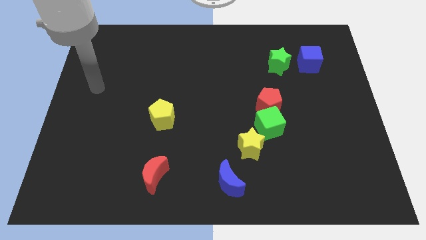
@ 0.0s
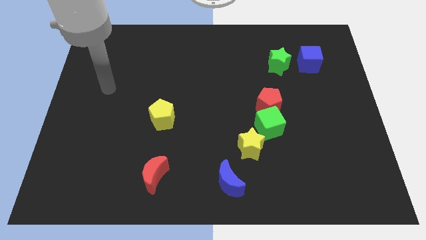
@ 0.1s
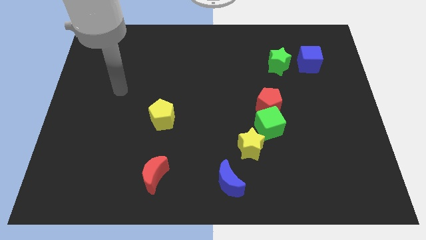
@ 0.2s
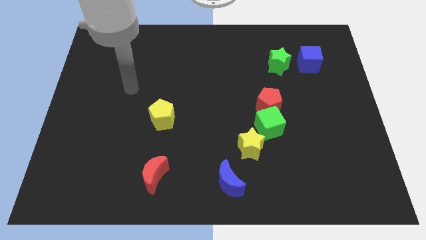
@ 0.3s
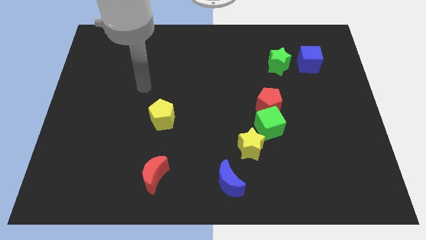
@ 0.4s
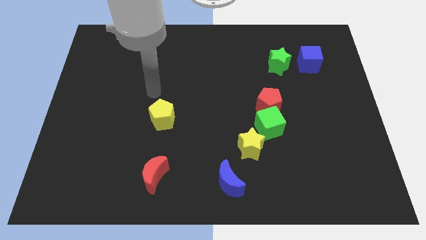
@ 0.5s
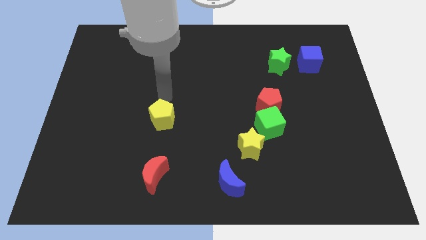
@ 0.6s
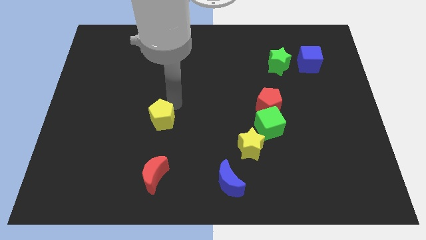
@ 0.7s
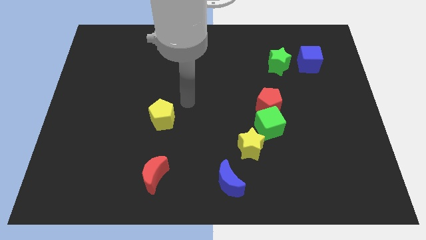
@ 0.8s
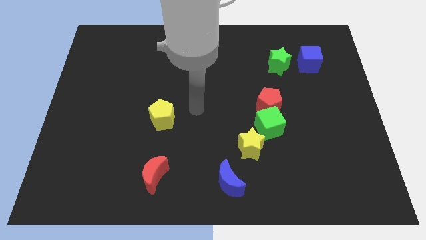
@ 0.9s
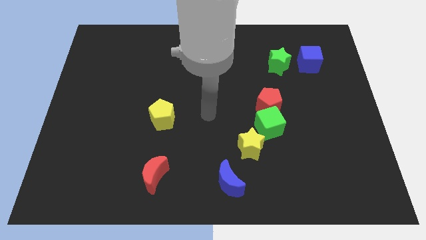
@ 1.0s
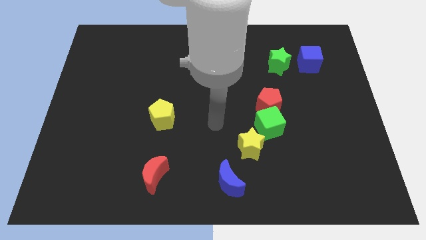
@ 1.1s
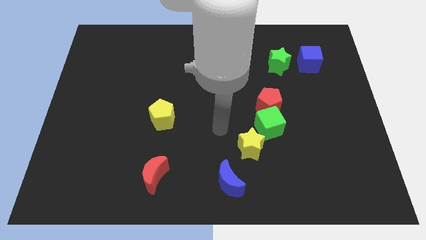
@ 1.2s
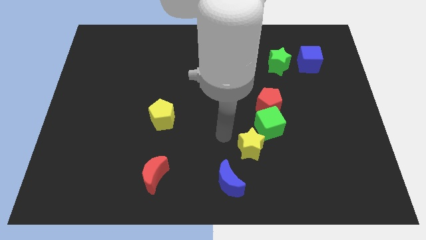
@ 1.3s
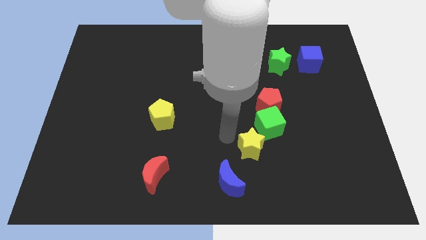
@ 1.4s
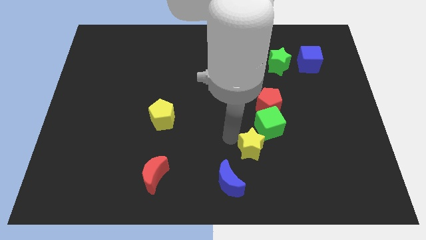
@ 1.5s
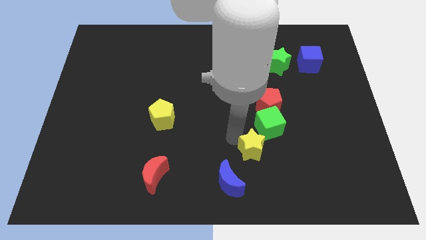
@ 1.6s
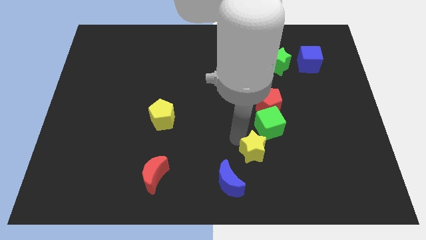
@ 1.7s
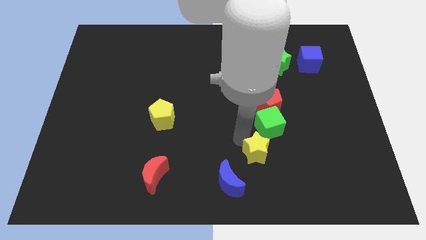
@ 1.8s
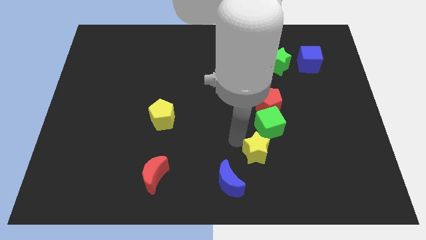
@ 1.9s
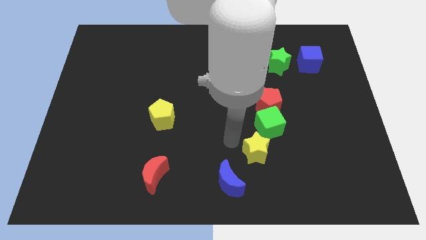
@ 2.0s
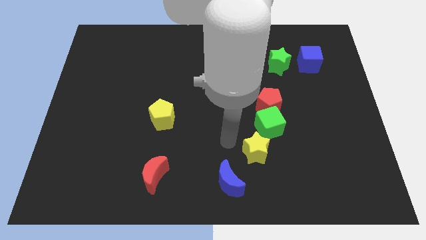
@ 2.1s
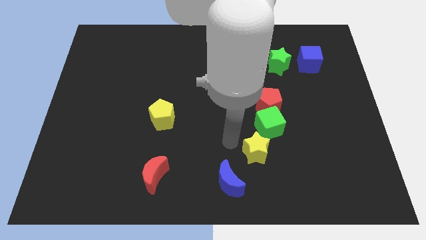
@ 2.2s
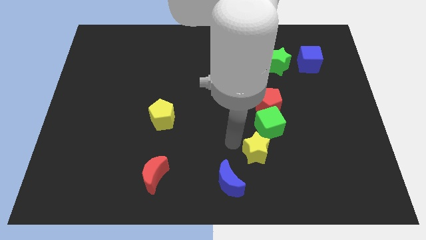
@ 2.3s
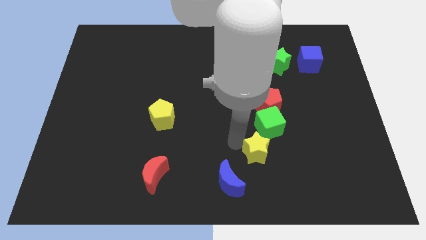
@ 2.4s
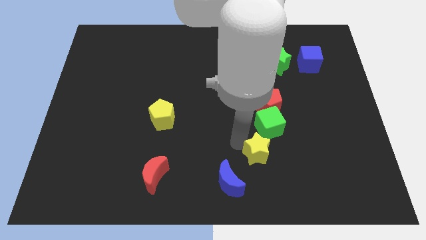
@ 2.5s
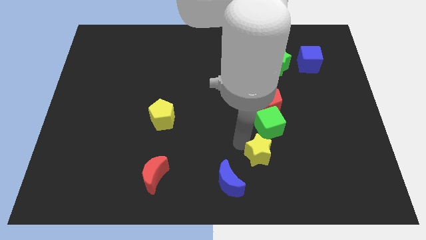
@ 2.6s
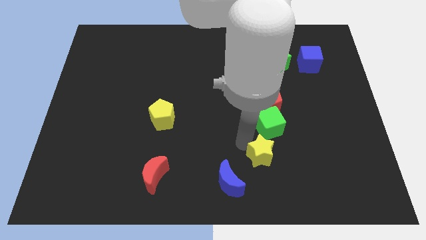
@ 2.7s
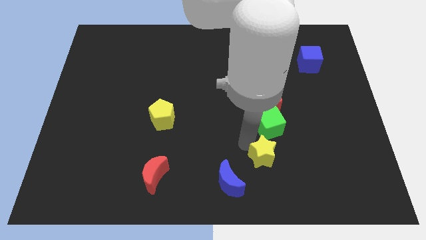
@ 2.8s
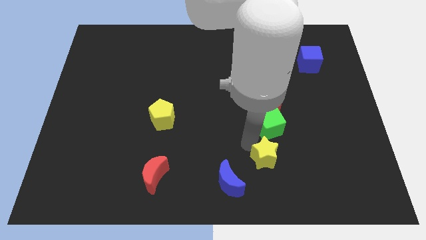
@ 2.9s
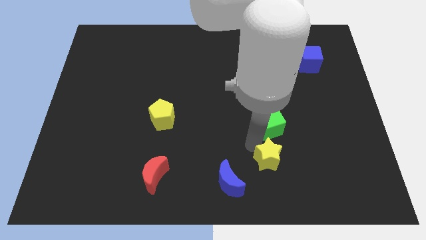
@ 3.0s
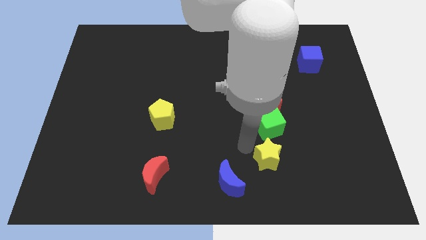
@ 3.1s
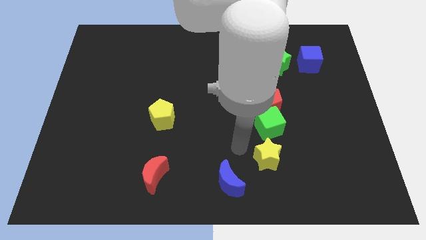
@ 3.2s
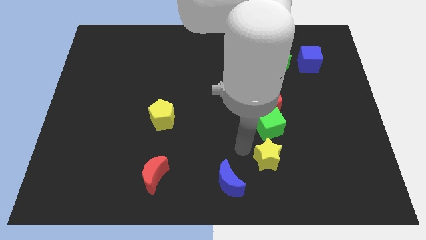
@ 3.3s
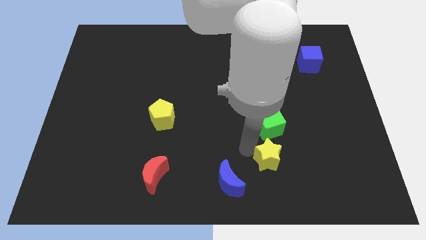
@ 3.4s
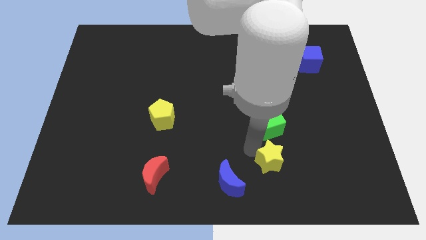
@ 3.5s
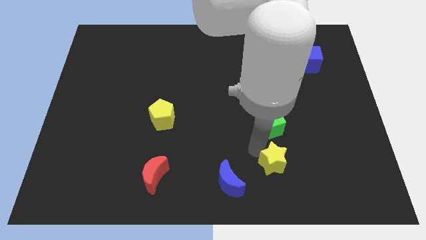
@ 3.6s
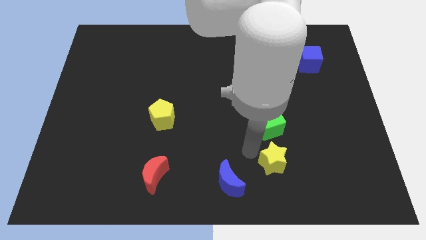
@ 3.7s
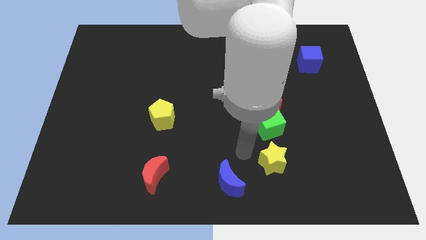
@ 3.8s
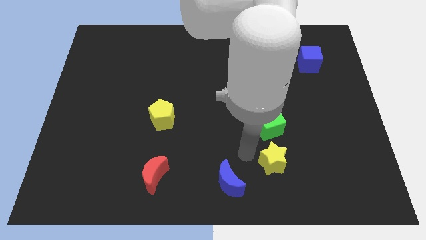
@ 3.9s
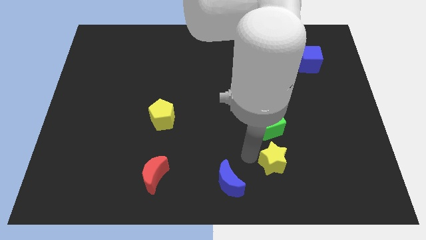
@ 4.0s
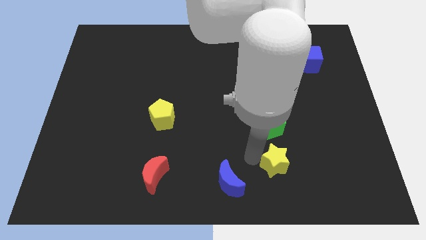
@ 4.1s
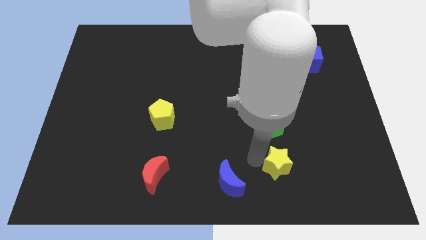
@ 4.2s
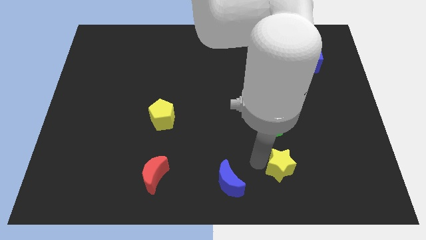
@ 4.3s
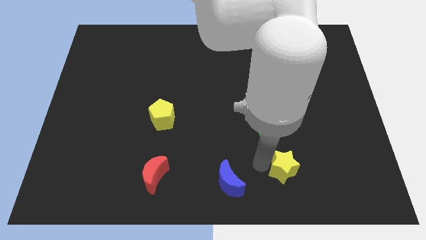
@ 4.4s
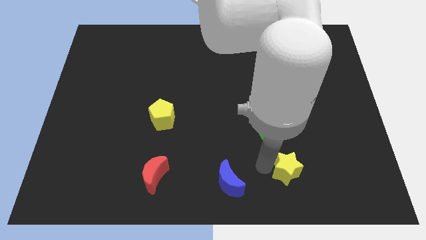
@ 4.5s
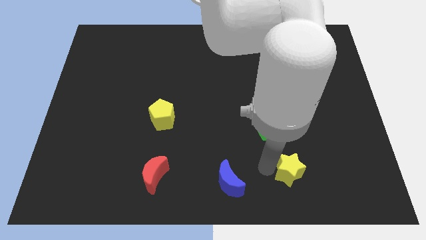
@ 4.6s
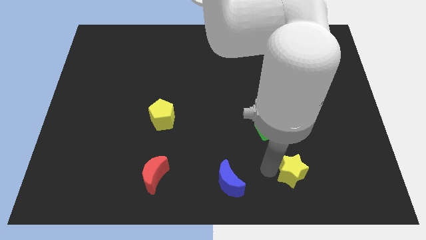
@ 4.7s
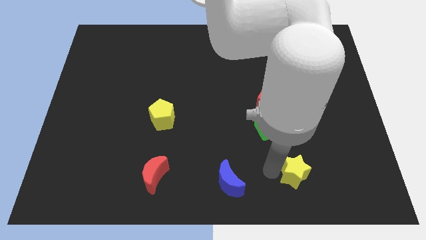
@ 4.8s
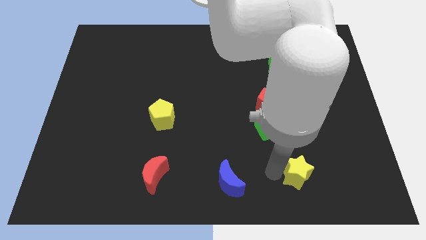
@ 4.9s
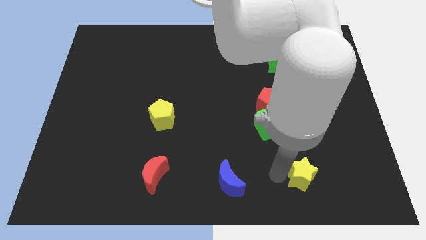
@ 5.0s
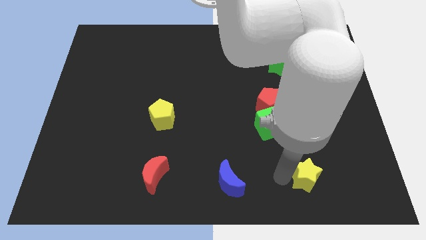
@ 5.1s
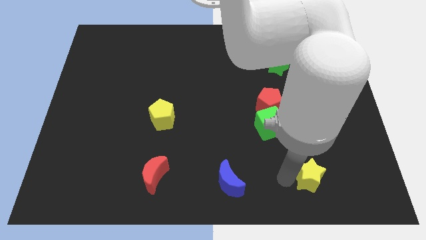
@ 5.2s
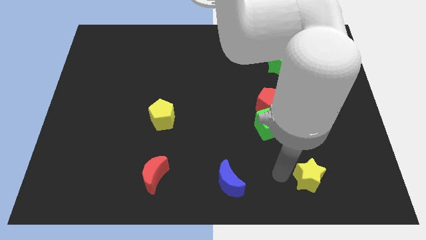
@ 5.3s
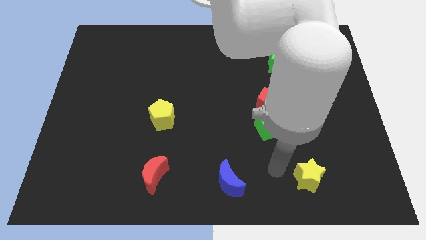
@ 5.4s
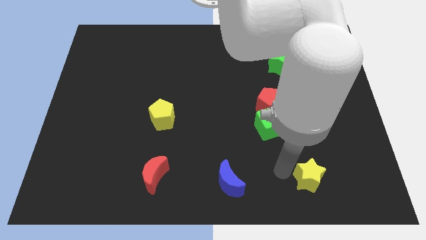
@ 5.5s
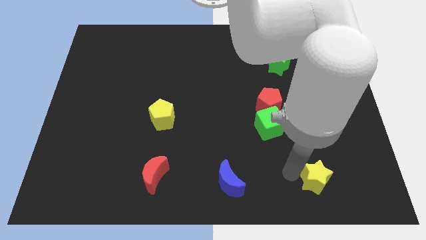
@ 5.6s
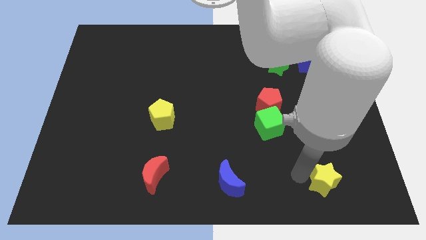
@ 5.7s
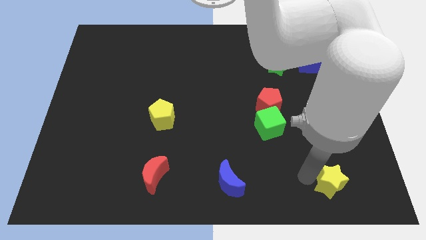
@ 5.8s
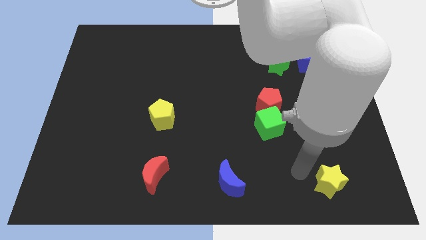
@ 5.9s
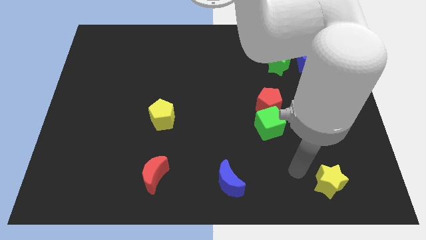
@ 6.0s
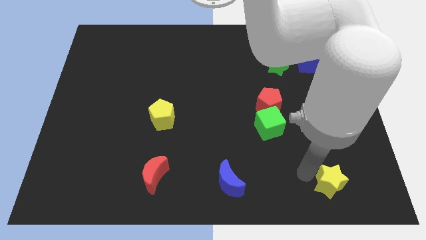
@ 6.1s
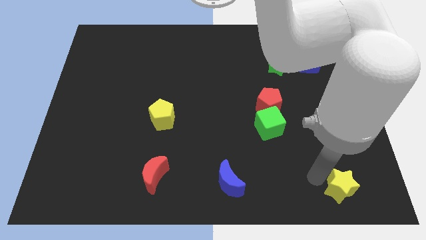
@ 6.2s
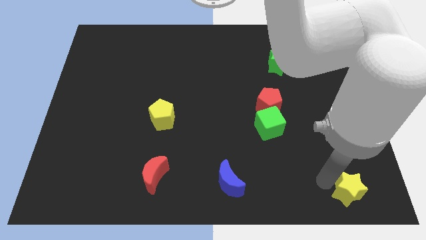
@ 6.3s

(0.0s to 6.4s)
move the yellow star to the bottom right

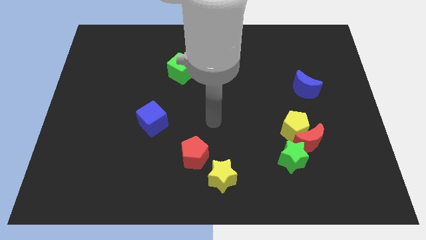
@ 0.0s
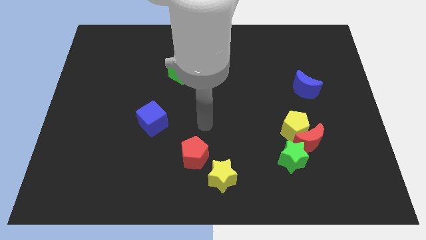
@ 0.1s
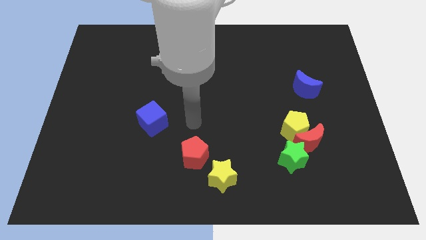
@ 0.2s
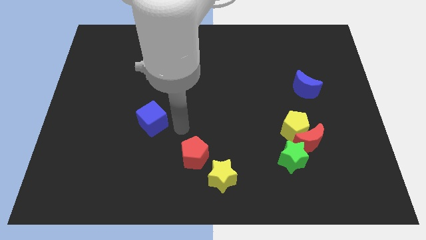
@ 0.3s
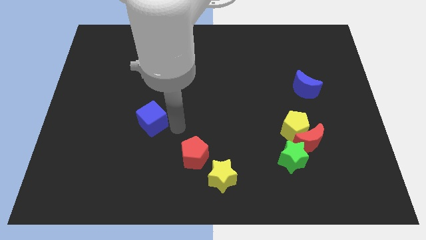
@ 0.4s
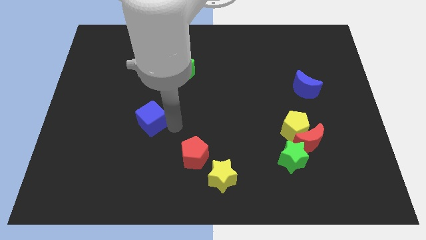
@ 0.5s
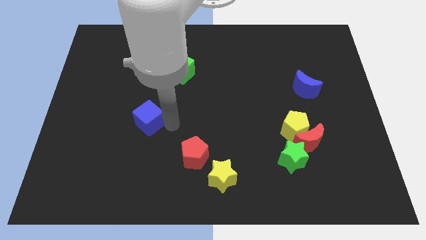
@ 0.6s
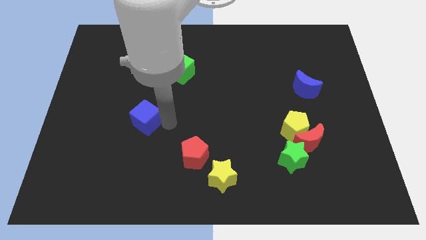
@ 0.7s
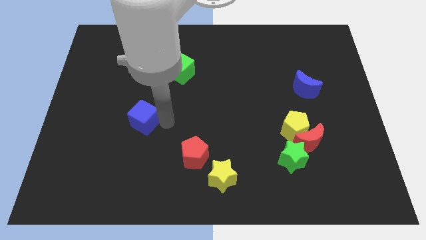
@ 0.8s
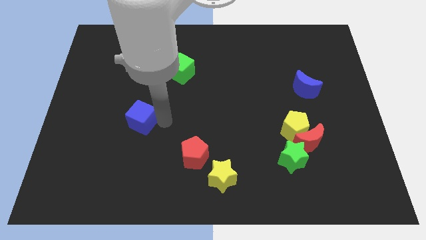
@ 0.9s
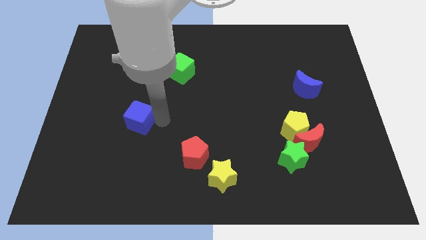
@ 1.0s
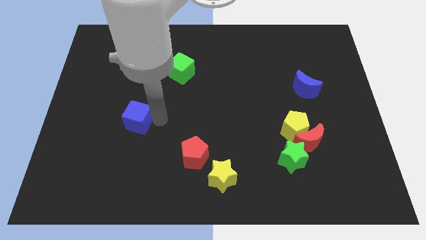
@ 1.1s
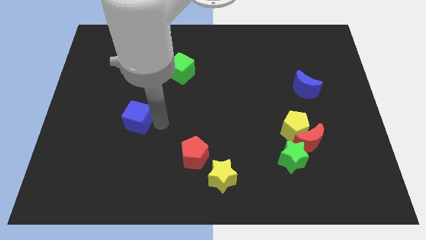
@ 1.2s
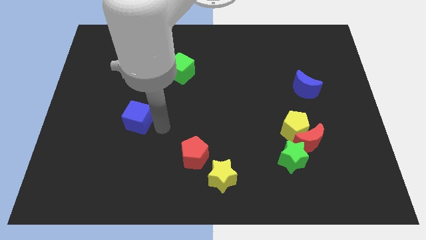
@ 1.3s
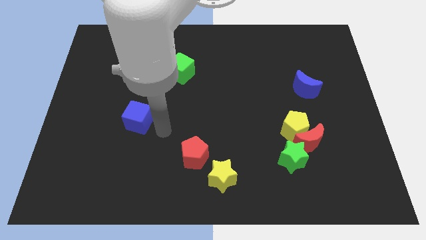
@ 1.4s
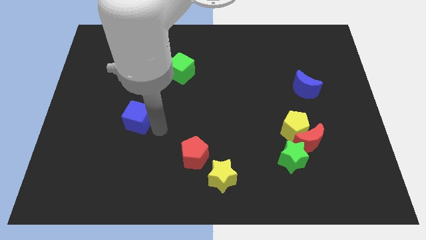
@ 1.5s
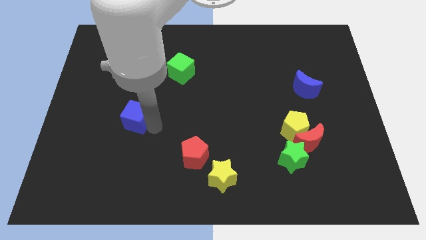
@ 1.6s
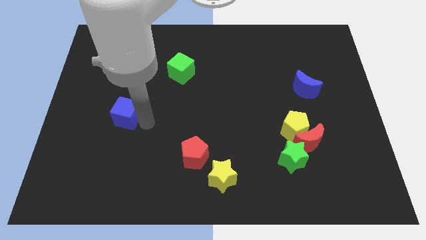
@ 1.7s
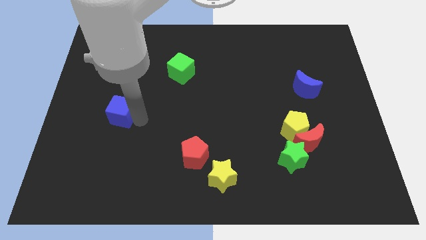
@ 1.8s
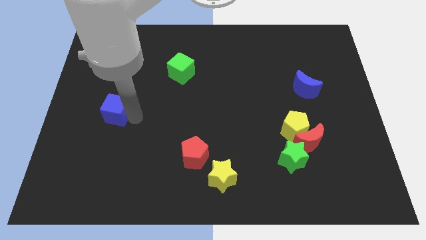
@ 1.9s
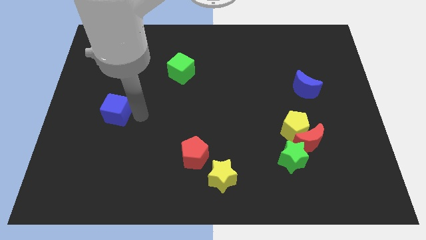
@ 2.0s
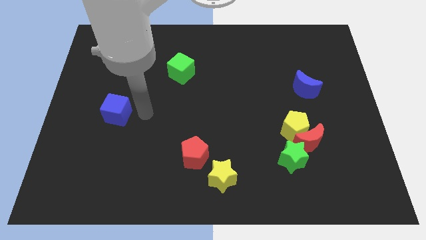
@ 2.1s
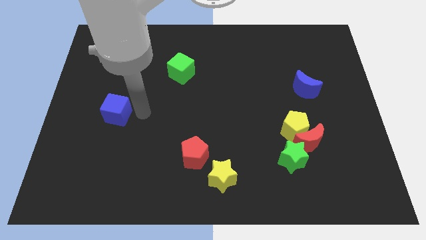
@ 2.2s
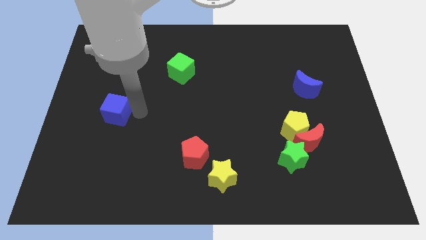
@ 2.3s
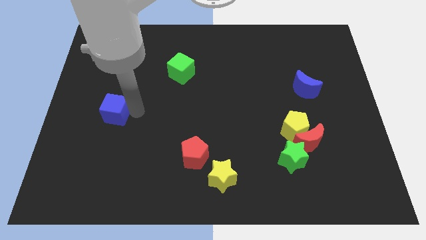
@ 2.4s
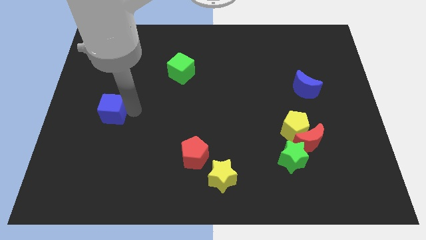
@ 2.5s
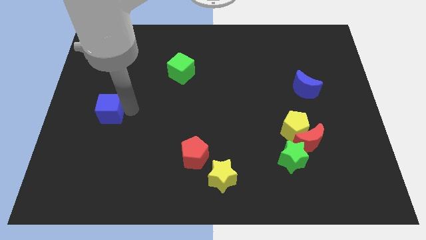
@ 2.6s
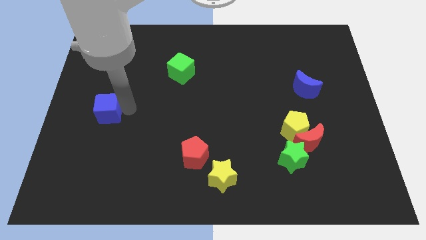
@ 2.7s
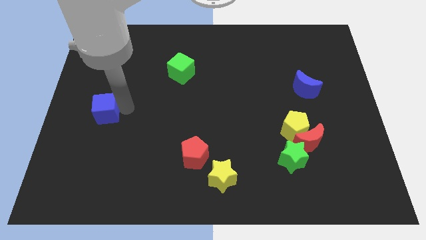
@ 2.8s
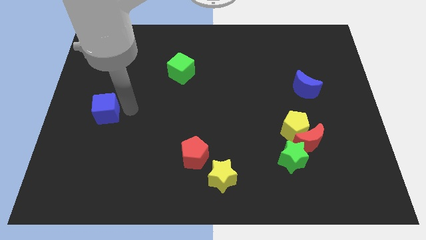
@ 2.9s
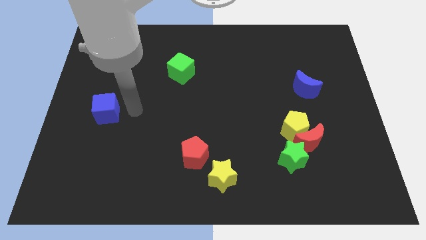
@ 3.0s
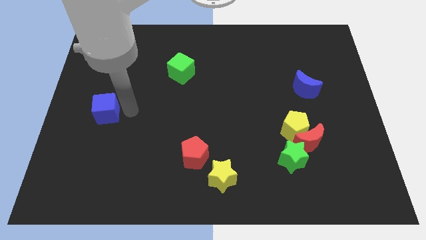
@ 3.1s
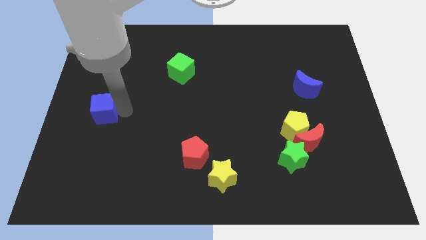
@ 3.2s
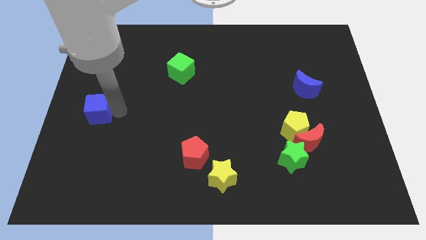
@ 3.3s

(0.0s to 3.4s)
put the blue cube to the left side of the board
